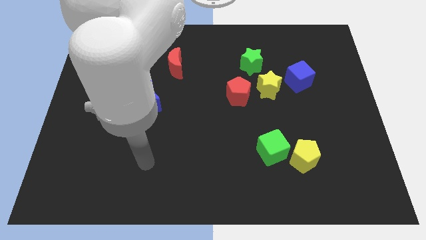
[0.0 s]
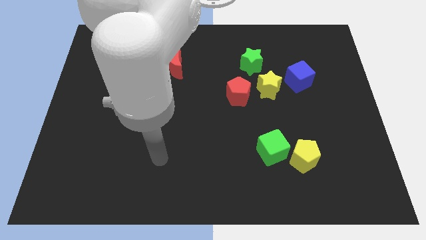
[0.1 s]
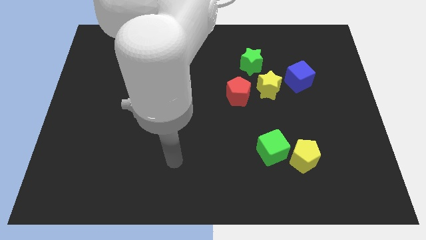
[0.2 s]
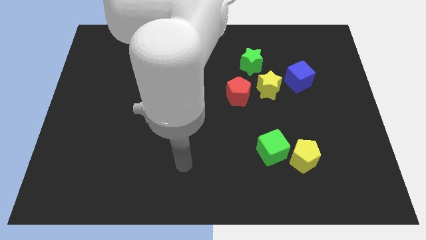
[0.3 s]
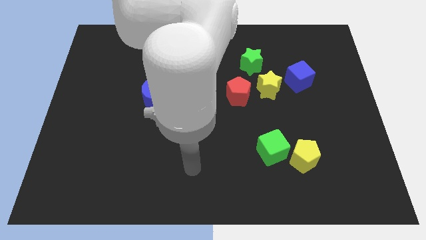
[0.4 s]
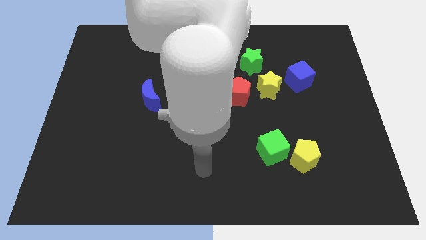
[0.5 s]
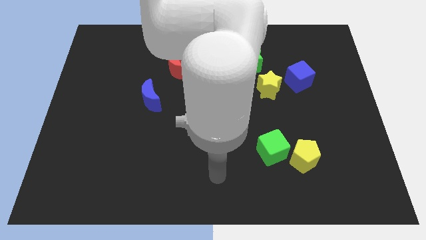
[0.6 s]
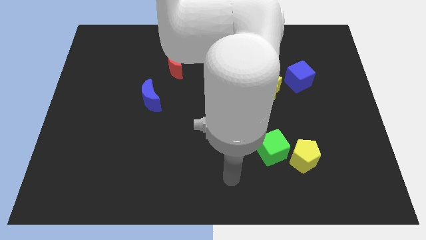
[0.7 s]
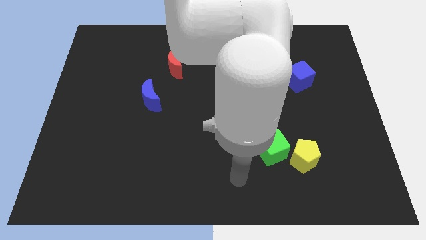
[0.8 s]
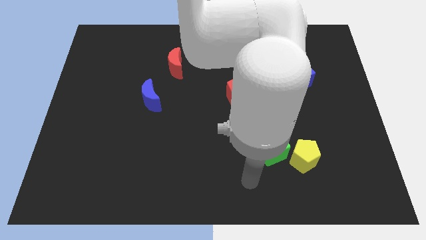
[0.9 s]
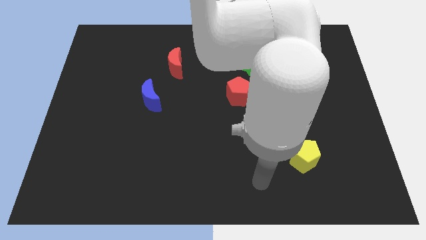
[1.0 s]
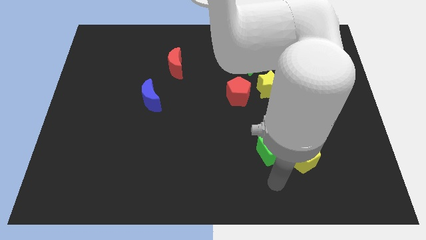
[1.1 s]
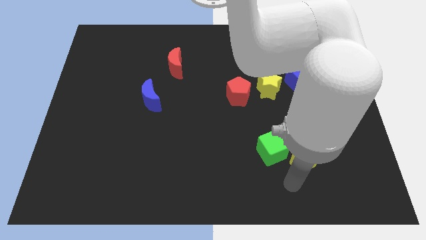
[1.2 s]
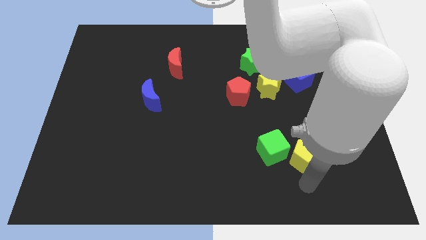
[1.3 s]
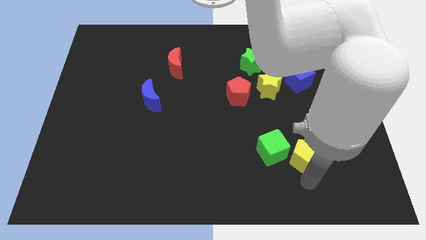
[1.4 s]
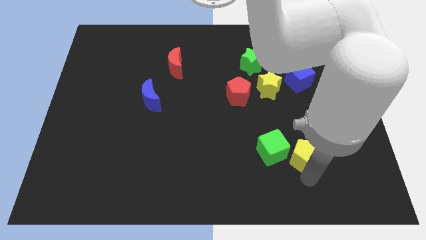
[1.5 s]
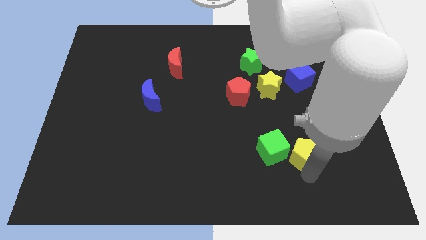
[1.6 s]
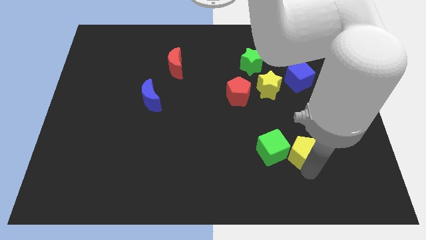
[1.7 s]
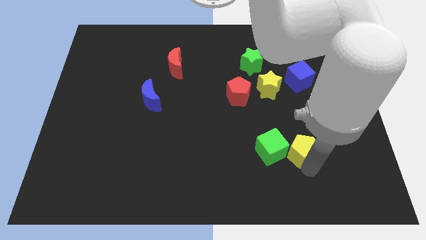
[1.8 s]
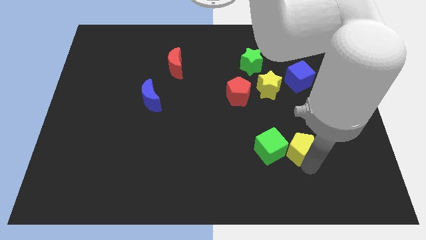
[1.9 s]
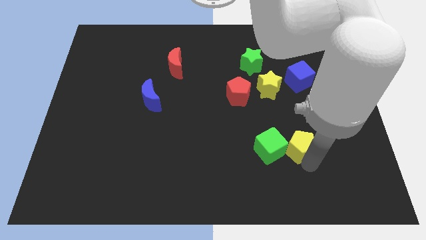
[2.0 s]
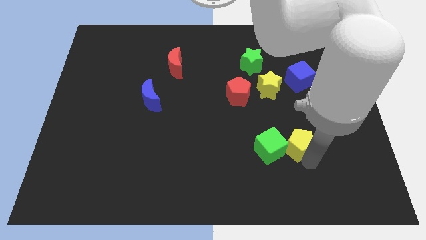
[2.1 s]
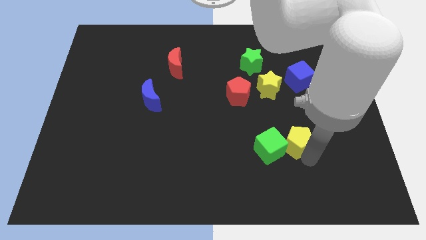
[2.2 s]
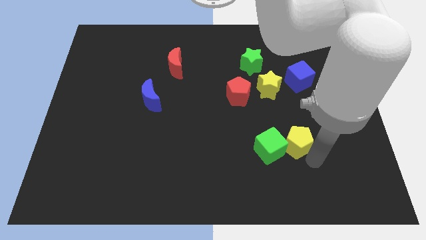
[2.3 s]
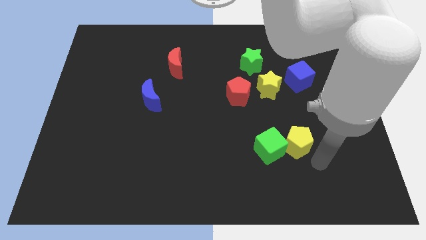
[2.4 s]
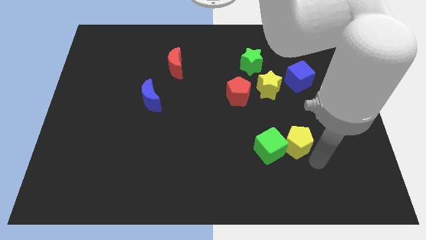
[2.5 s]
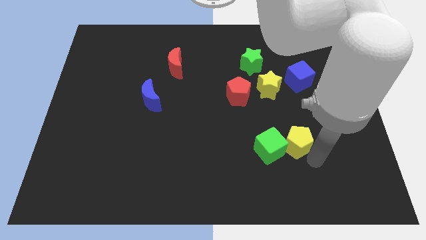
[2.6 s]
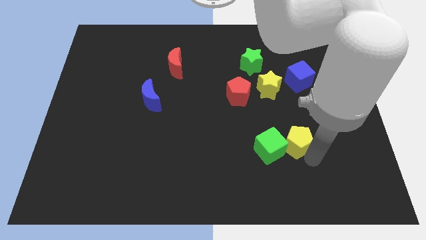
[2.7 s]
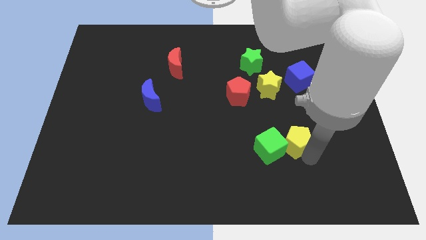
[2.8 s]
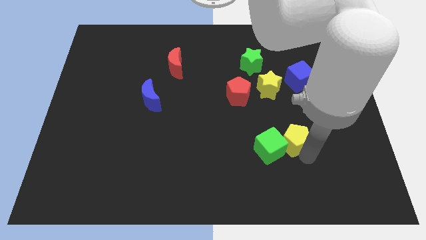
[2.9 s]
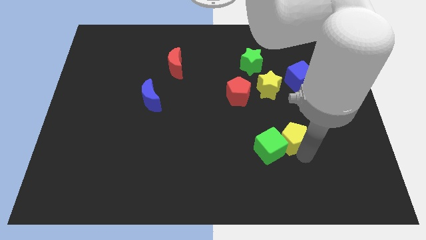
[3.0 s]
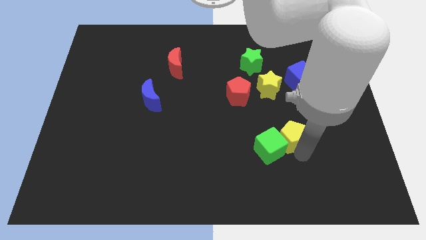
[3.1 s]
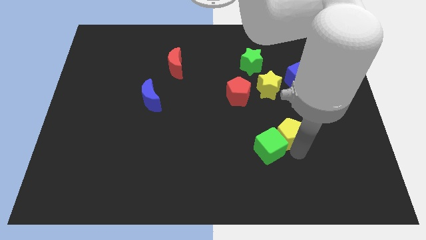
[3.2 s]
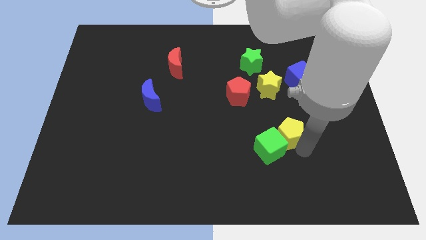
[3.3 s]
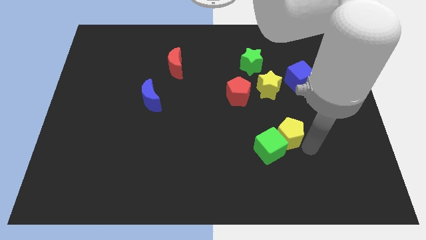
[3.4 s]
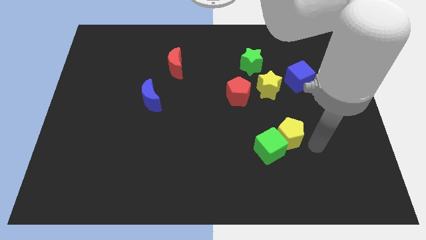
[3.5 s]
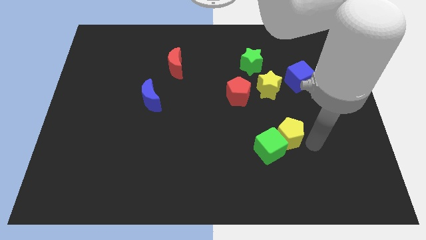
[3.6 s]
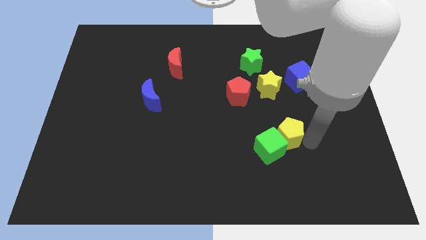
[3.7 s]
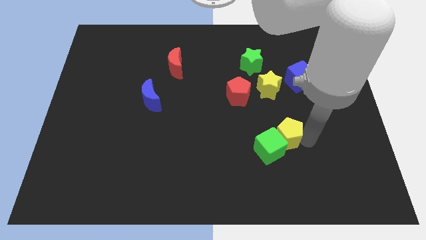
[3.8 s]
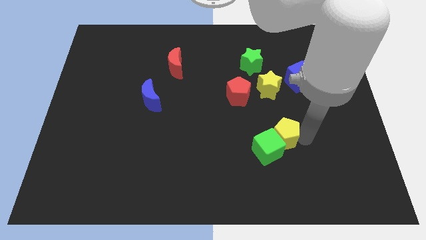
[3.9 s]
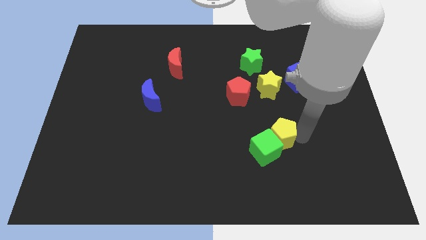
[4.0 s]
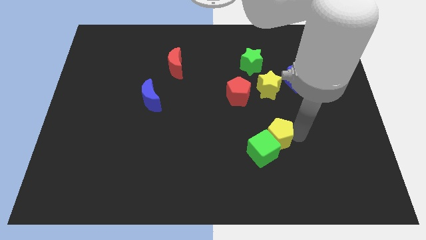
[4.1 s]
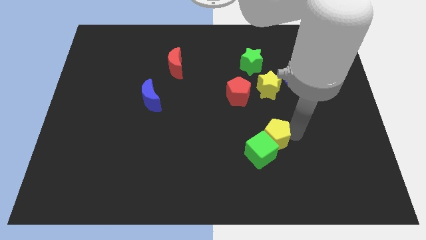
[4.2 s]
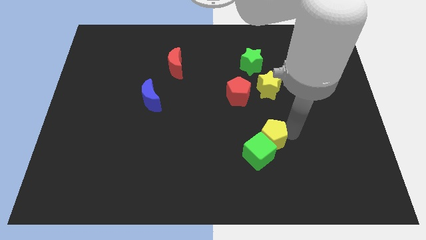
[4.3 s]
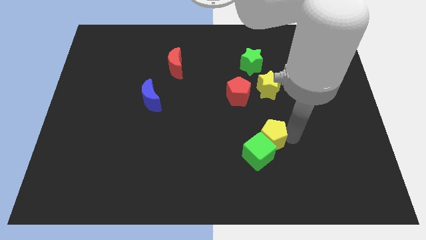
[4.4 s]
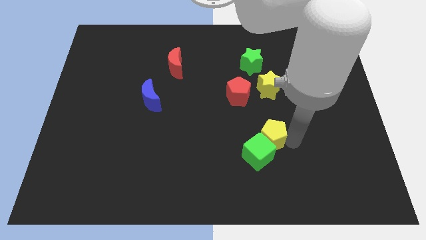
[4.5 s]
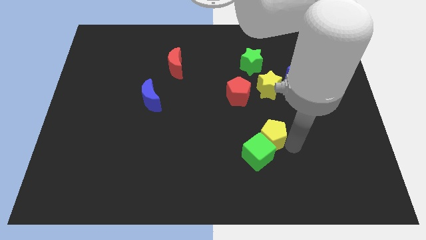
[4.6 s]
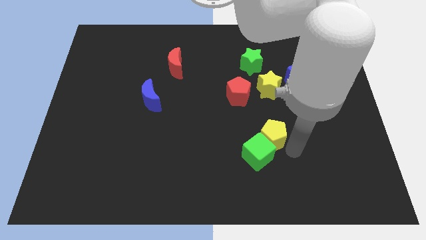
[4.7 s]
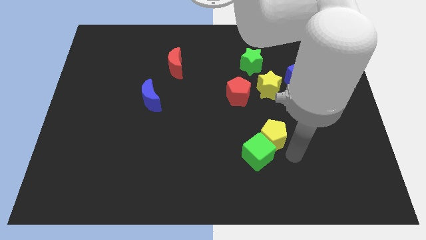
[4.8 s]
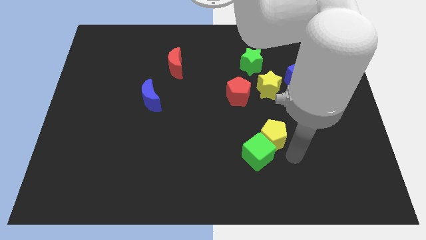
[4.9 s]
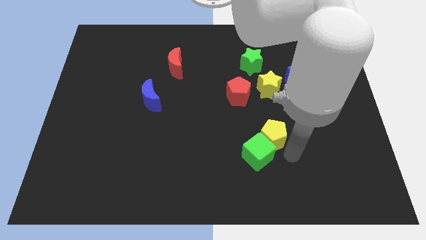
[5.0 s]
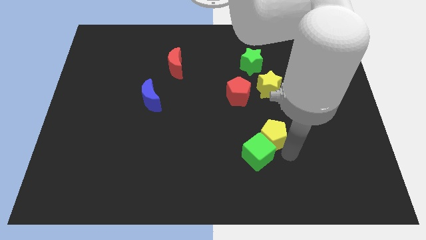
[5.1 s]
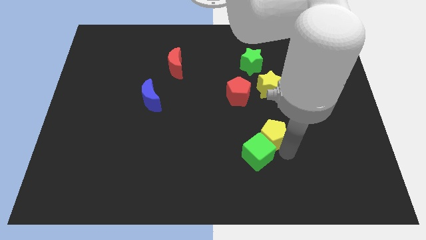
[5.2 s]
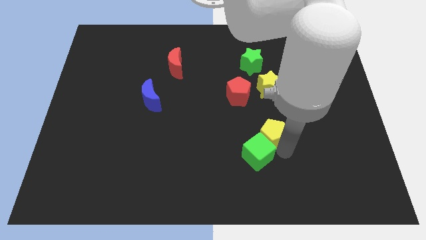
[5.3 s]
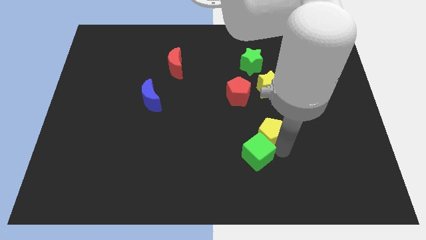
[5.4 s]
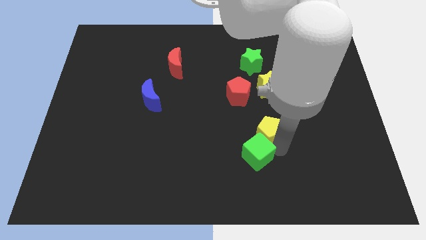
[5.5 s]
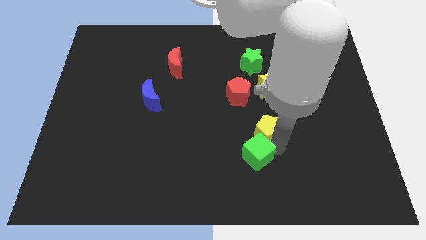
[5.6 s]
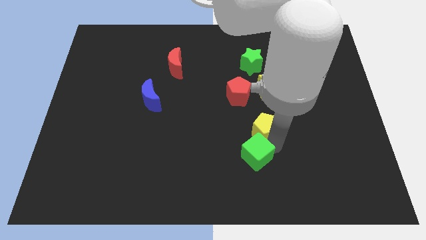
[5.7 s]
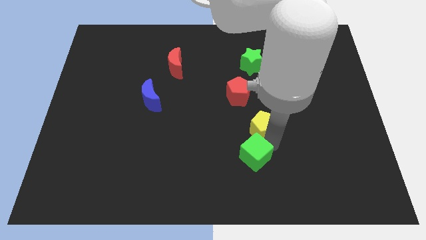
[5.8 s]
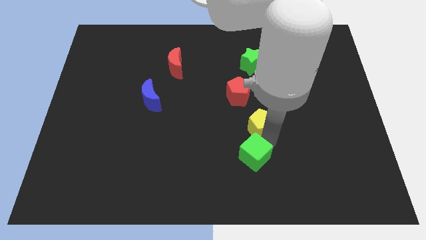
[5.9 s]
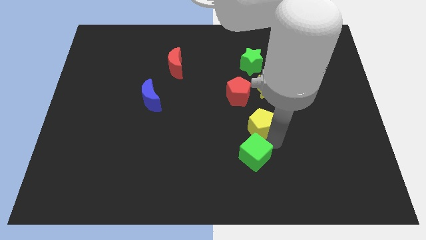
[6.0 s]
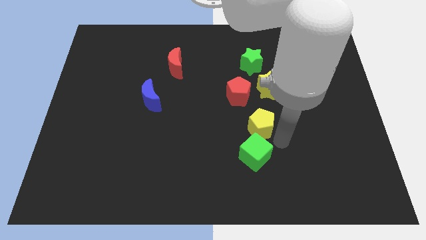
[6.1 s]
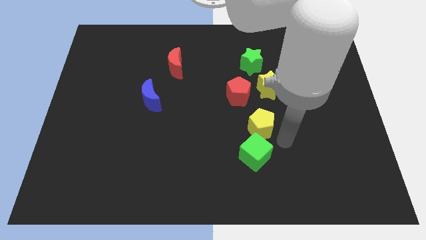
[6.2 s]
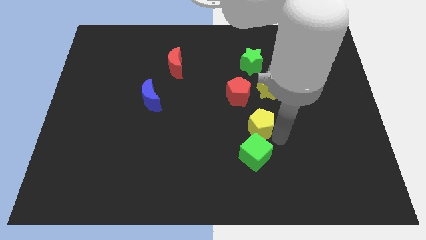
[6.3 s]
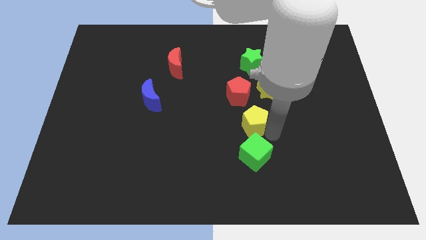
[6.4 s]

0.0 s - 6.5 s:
slide the yellow pentagon to the center
